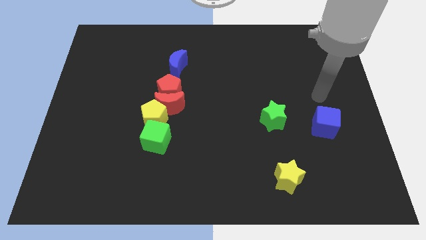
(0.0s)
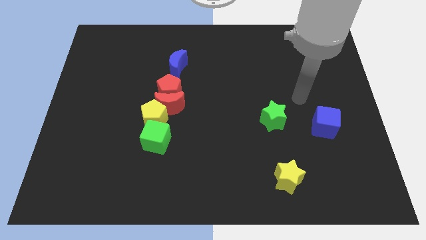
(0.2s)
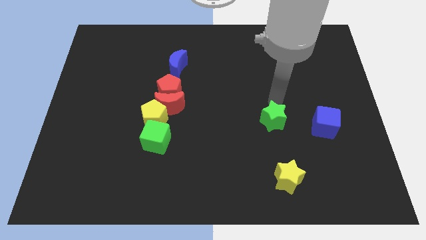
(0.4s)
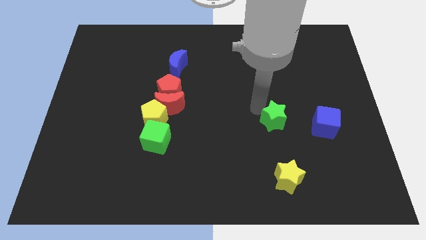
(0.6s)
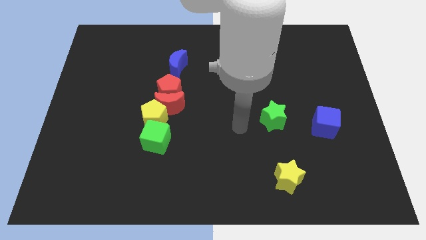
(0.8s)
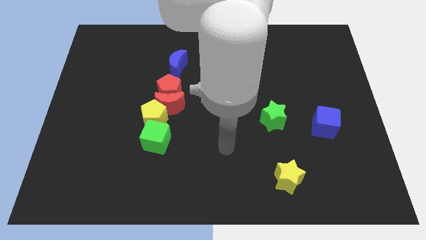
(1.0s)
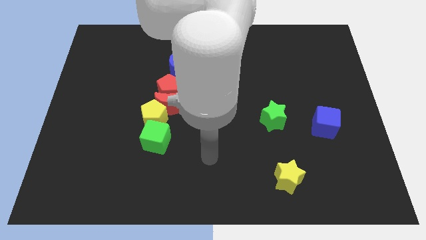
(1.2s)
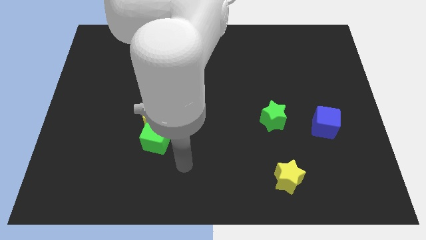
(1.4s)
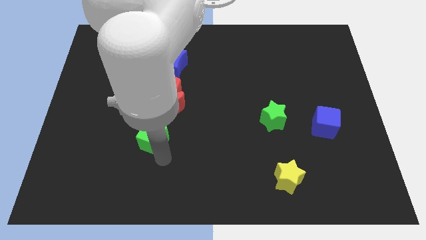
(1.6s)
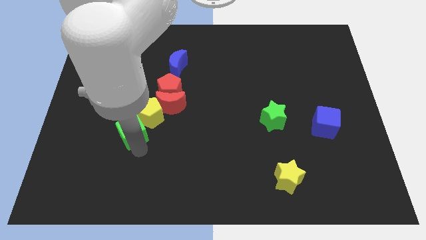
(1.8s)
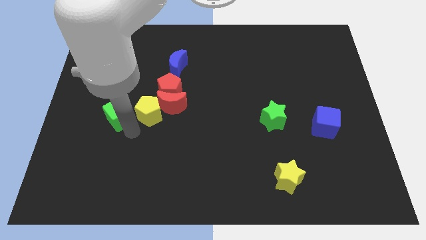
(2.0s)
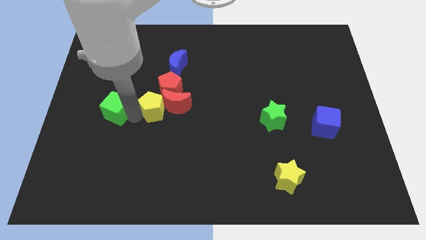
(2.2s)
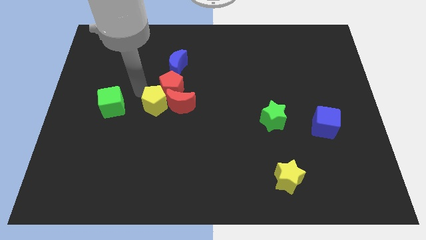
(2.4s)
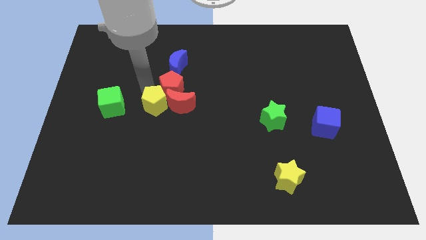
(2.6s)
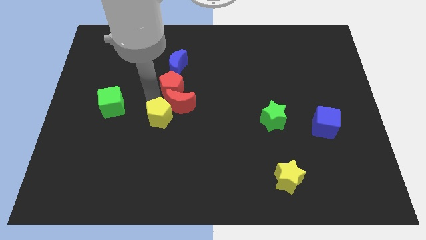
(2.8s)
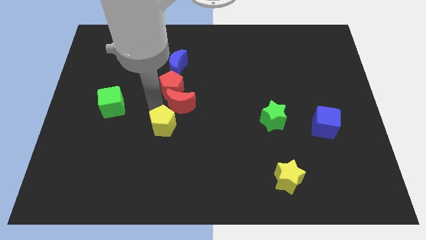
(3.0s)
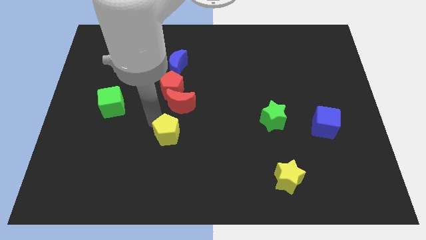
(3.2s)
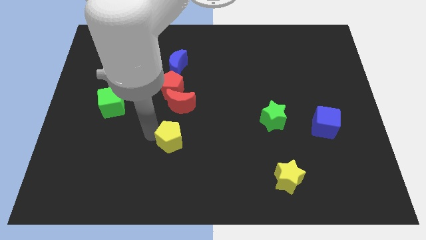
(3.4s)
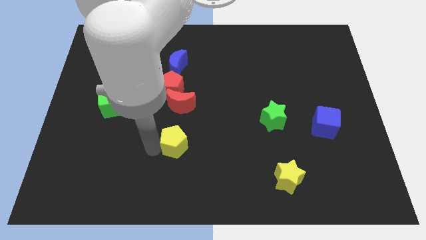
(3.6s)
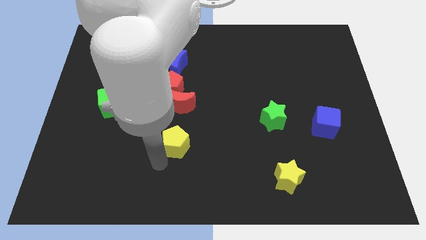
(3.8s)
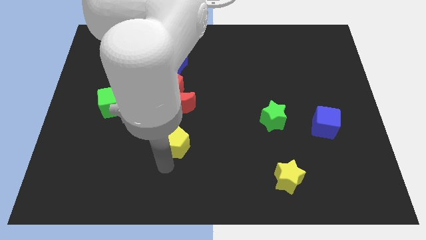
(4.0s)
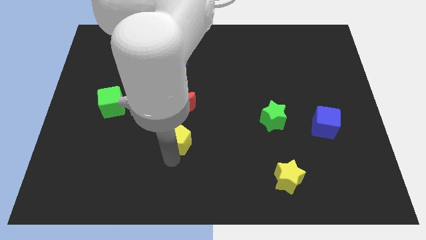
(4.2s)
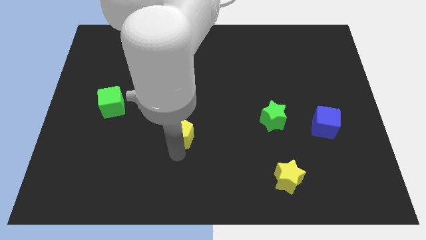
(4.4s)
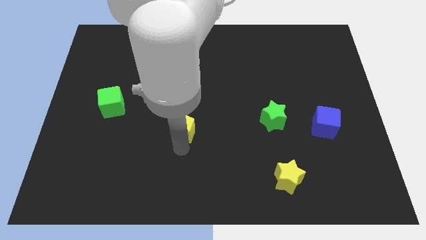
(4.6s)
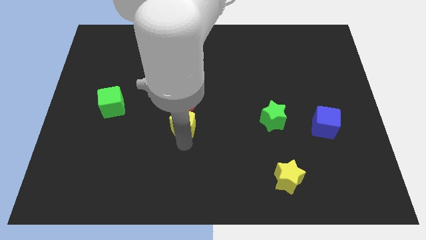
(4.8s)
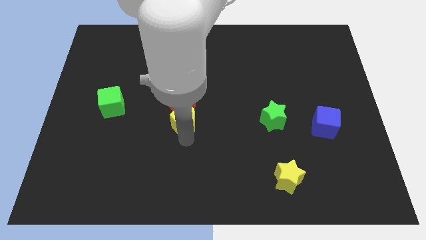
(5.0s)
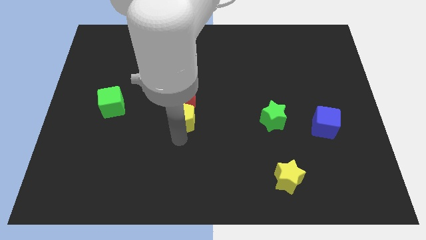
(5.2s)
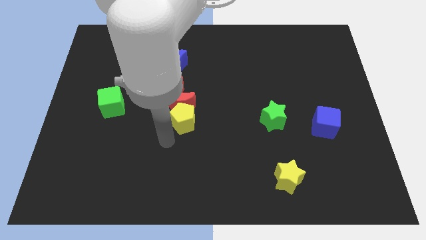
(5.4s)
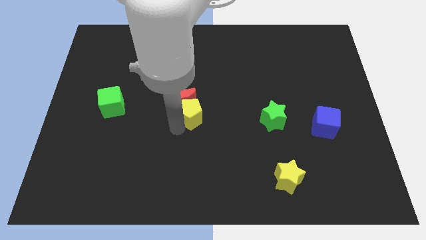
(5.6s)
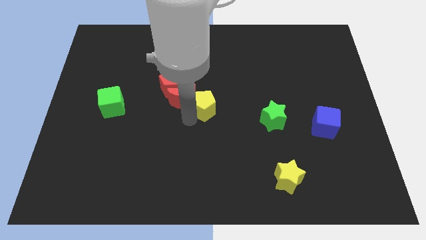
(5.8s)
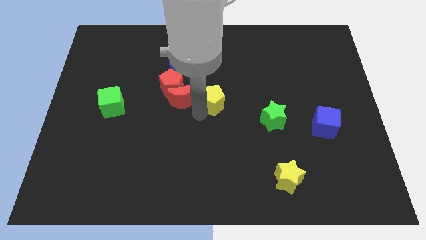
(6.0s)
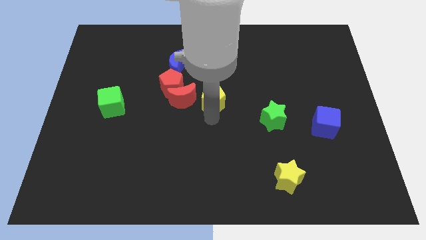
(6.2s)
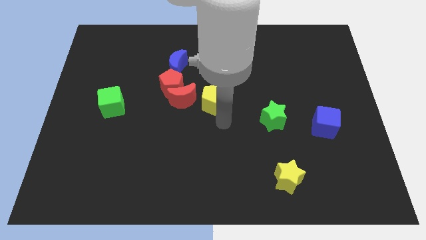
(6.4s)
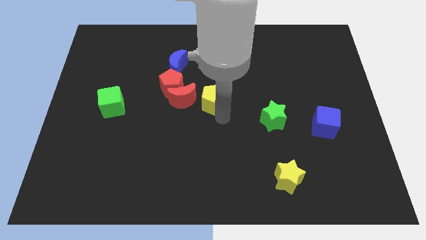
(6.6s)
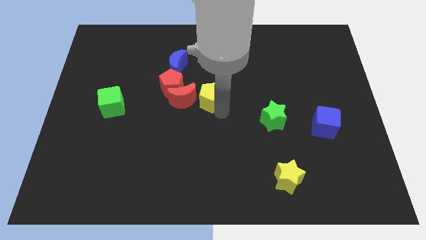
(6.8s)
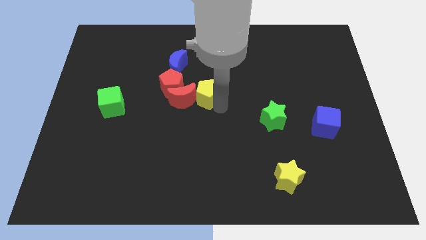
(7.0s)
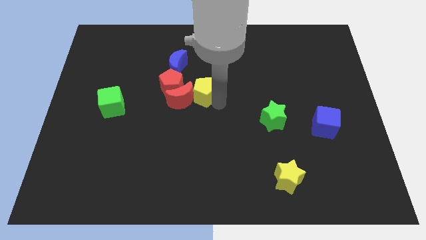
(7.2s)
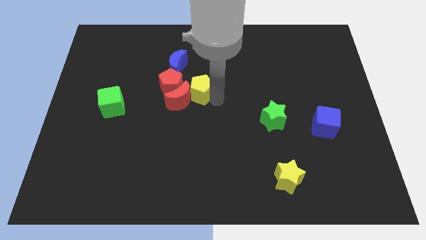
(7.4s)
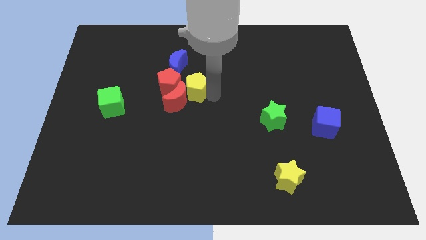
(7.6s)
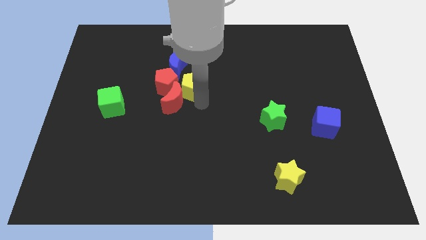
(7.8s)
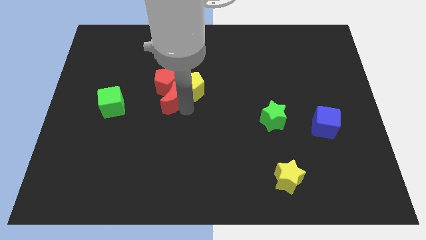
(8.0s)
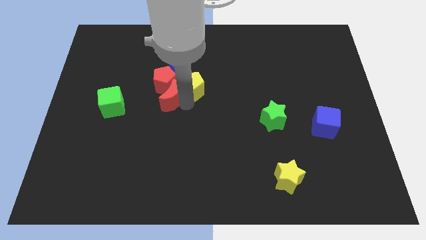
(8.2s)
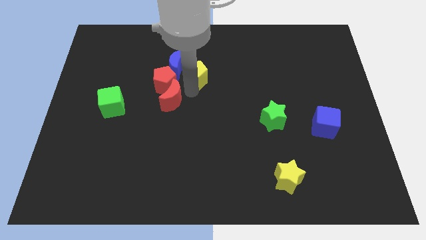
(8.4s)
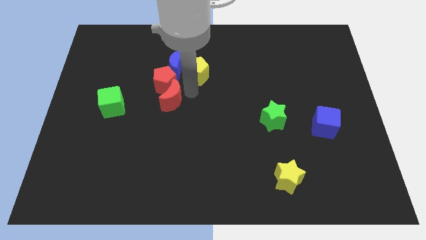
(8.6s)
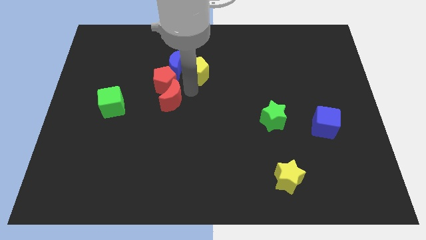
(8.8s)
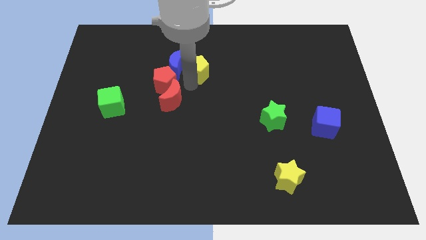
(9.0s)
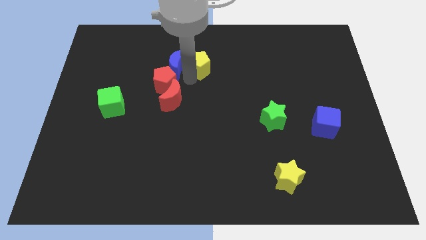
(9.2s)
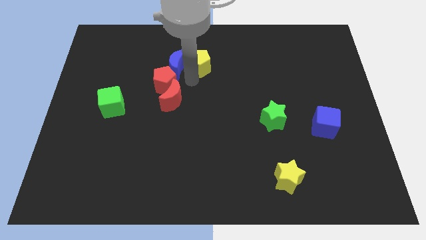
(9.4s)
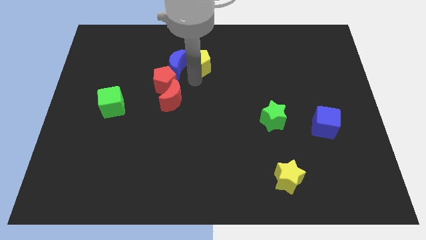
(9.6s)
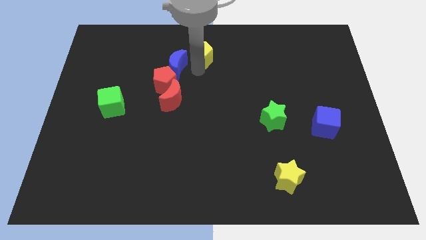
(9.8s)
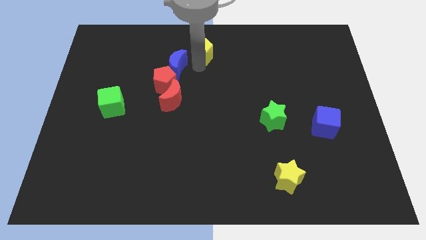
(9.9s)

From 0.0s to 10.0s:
put the yellow pentagon to the top

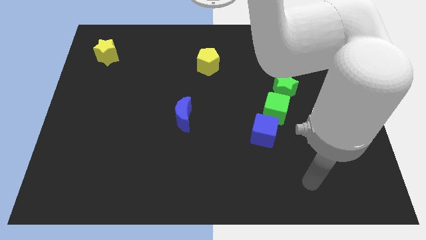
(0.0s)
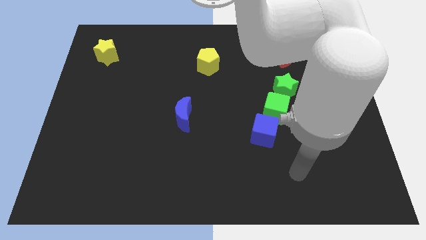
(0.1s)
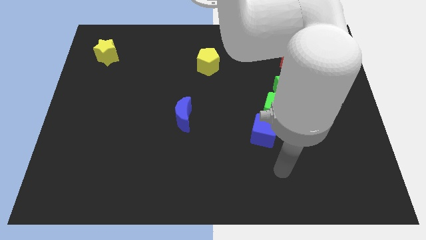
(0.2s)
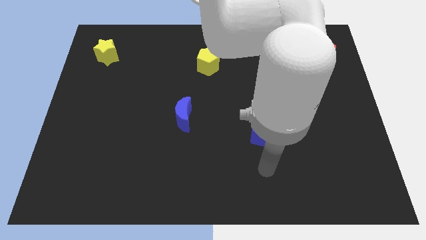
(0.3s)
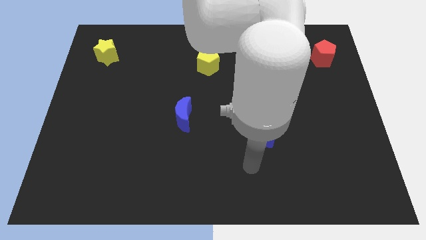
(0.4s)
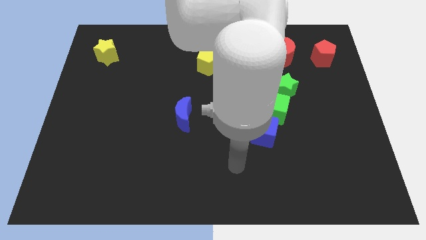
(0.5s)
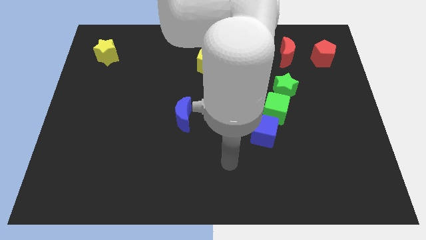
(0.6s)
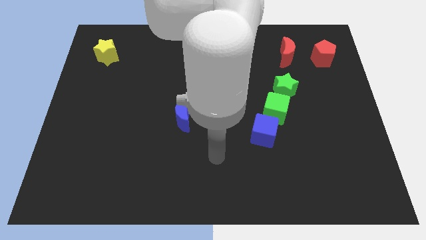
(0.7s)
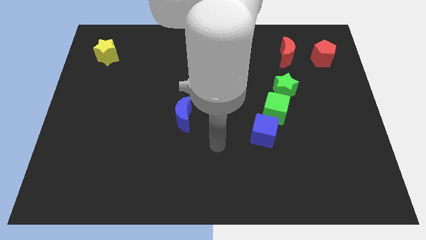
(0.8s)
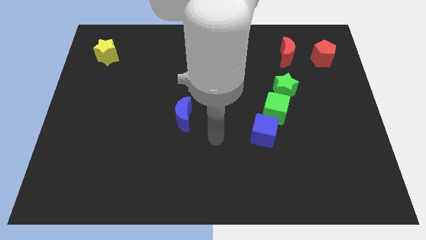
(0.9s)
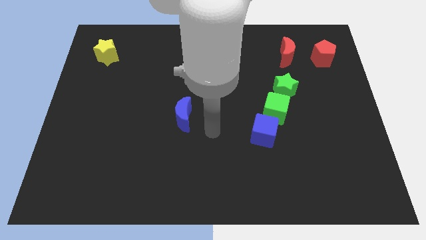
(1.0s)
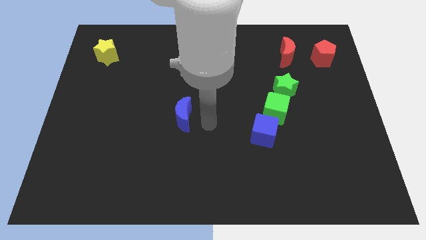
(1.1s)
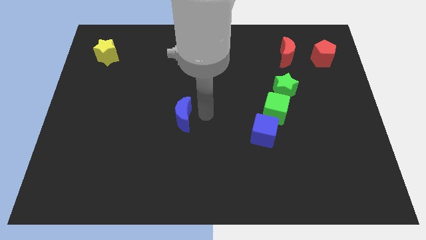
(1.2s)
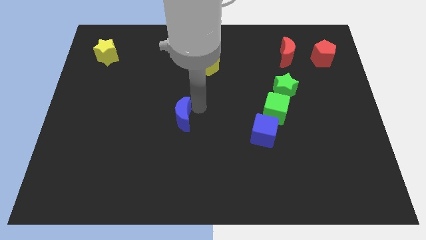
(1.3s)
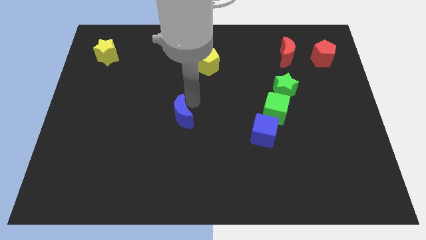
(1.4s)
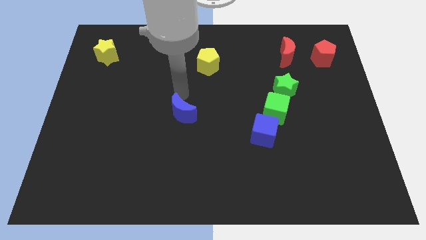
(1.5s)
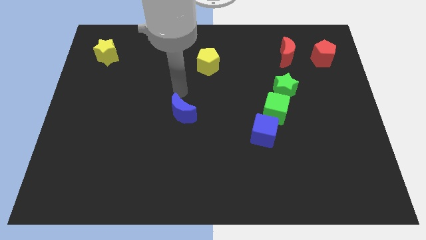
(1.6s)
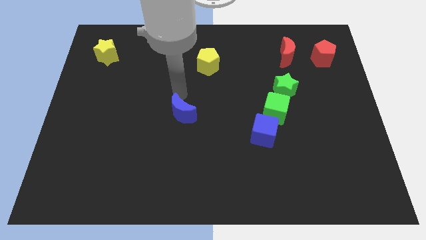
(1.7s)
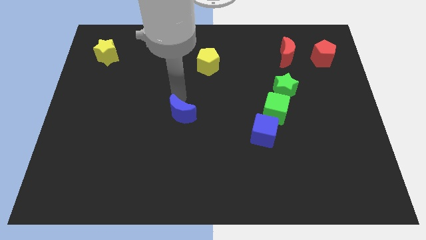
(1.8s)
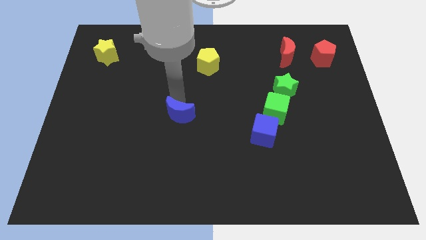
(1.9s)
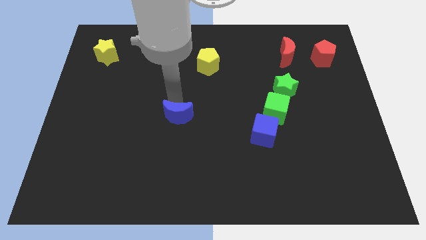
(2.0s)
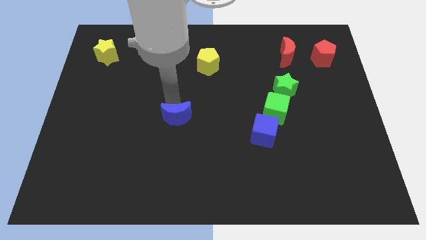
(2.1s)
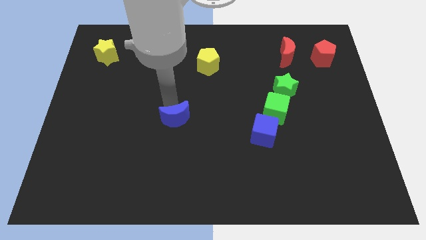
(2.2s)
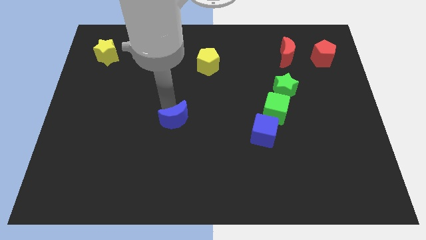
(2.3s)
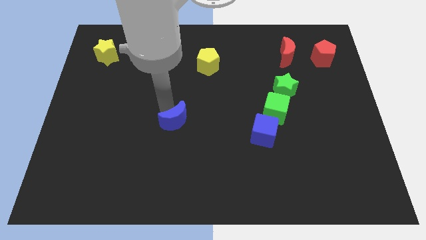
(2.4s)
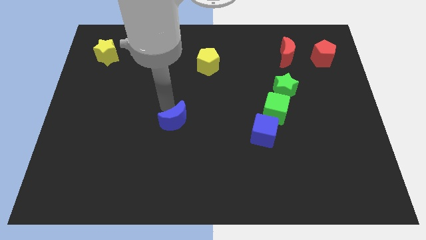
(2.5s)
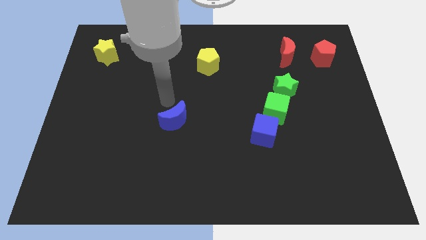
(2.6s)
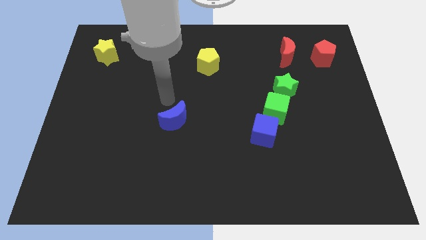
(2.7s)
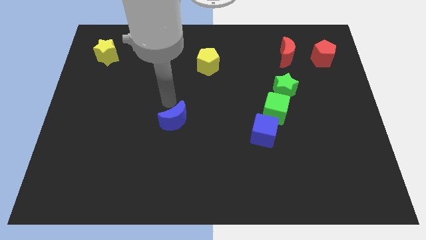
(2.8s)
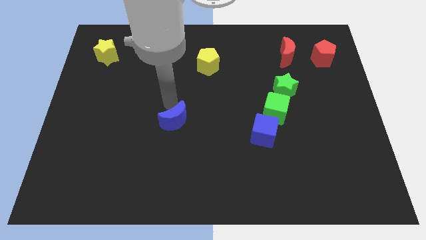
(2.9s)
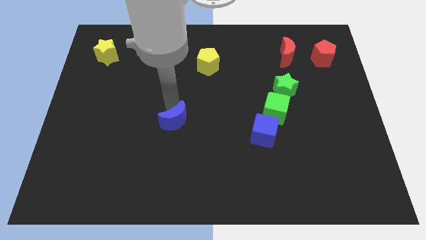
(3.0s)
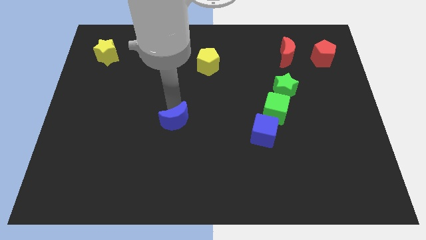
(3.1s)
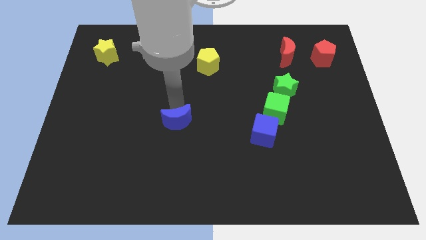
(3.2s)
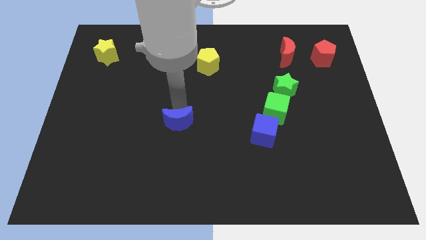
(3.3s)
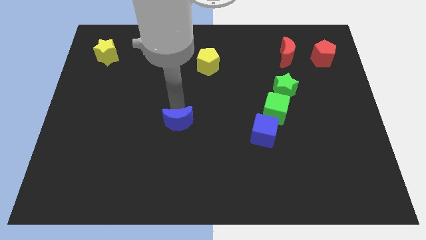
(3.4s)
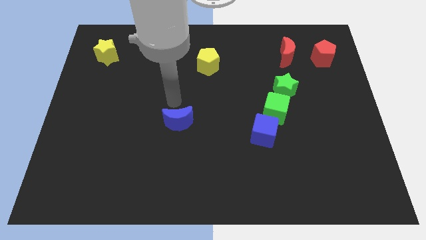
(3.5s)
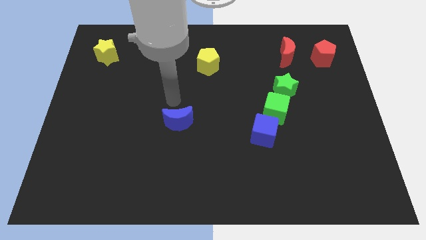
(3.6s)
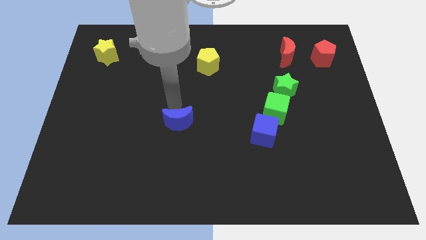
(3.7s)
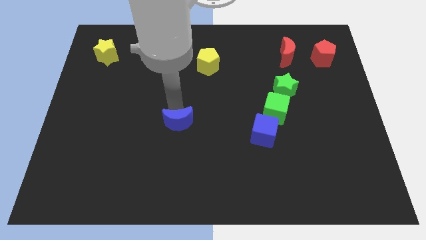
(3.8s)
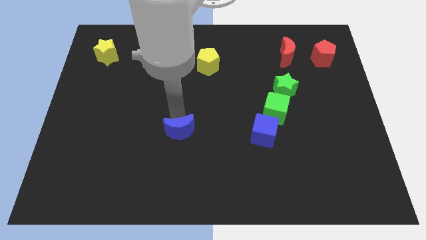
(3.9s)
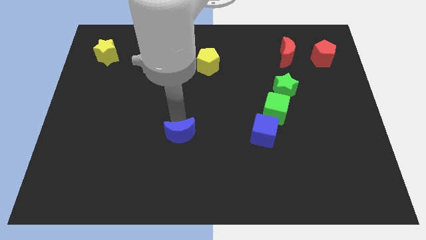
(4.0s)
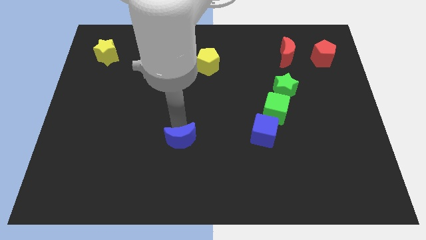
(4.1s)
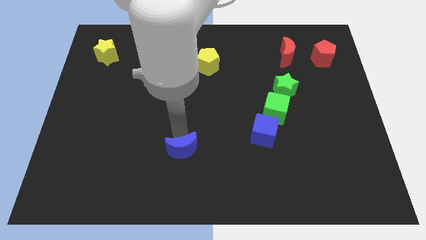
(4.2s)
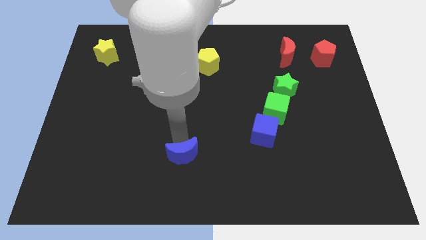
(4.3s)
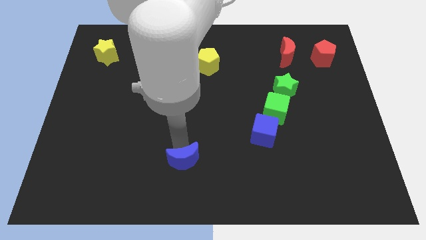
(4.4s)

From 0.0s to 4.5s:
slide the blue moon to the bottom
